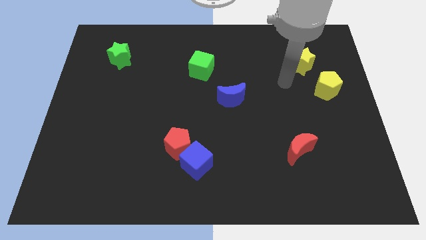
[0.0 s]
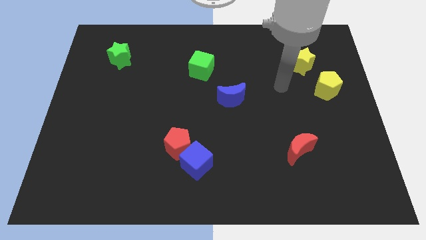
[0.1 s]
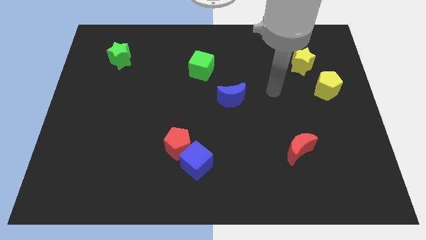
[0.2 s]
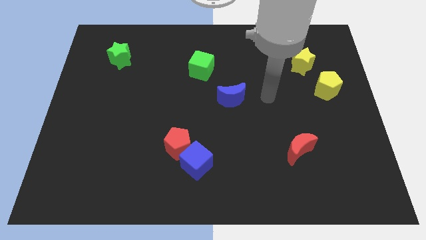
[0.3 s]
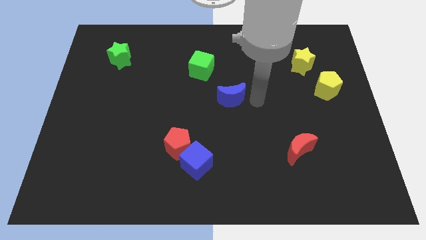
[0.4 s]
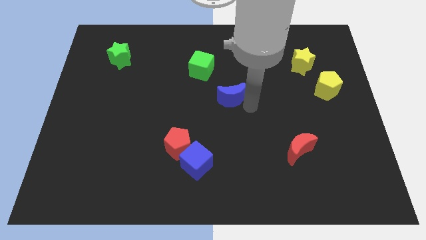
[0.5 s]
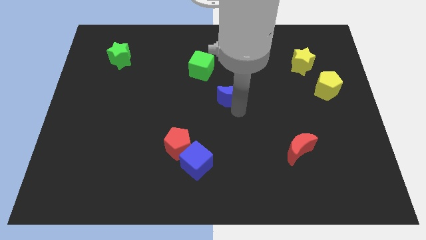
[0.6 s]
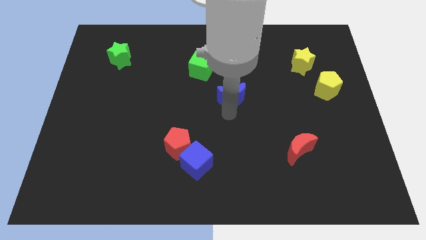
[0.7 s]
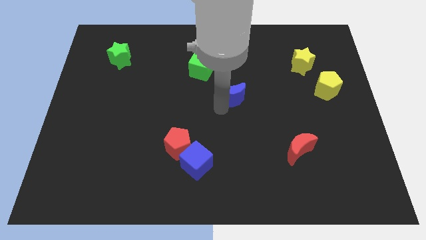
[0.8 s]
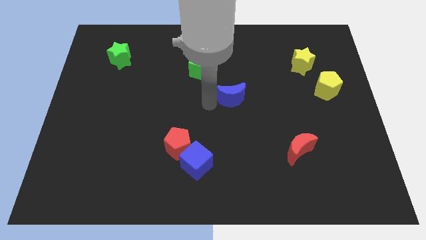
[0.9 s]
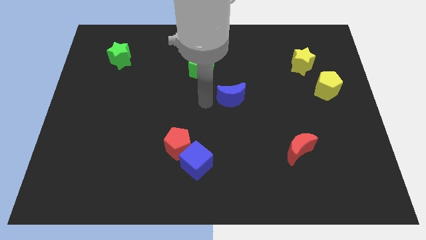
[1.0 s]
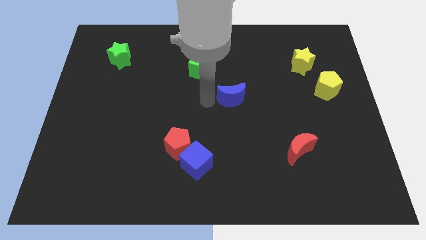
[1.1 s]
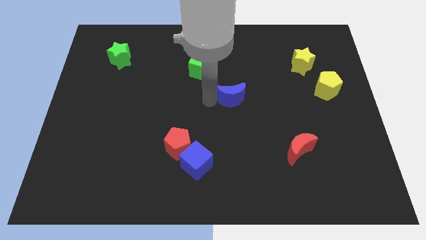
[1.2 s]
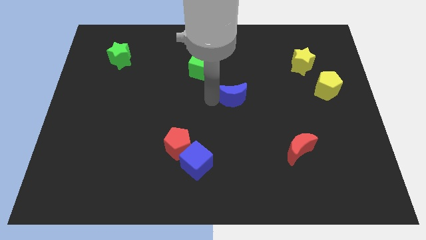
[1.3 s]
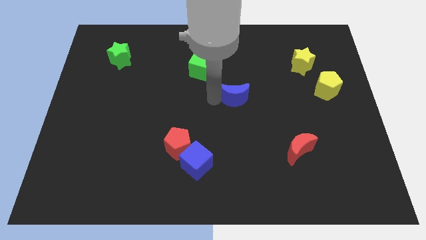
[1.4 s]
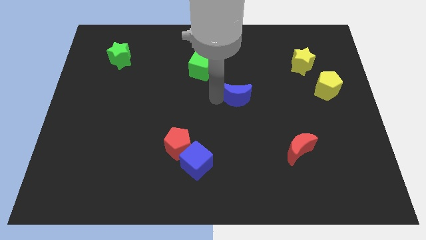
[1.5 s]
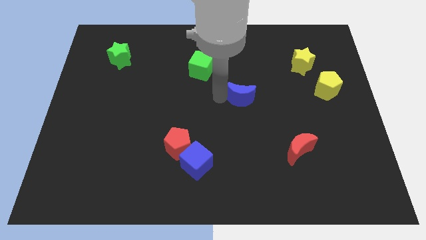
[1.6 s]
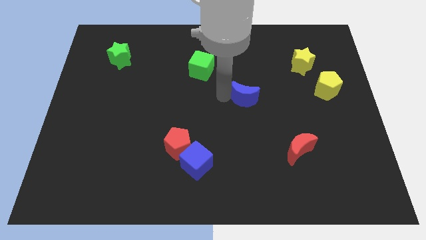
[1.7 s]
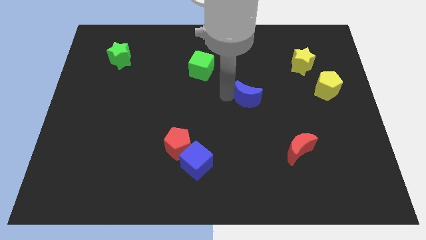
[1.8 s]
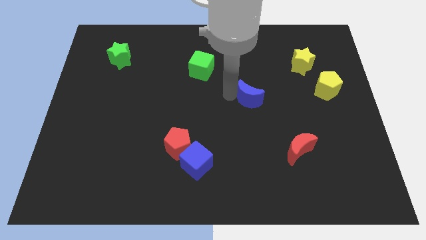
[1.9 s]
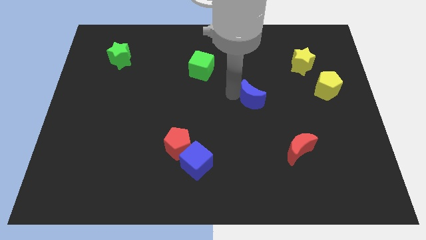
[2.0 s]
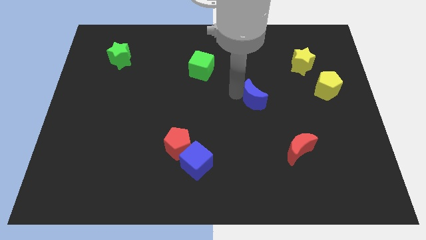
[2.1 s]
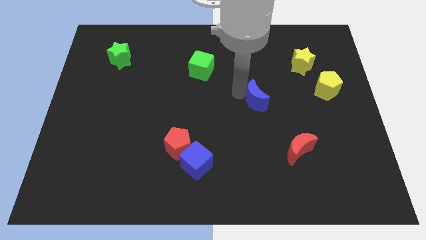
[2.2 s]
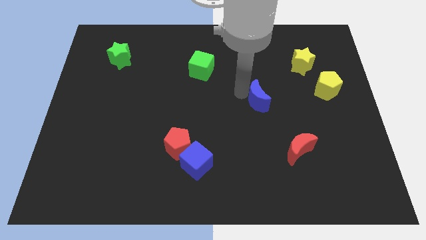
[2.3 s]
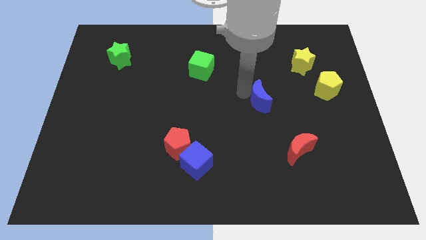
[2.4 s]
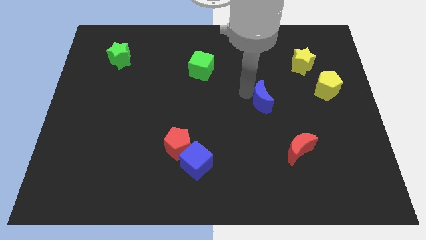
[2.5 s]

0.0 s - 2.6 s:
slide the blue moon to the right somewhat

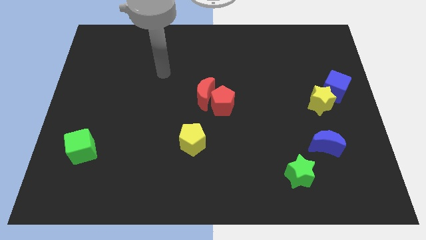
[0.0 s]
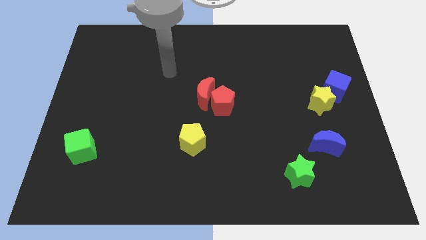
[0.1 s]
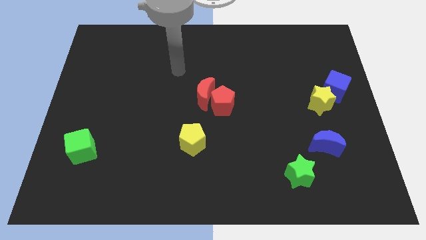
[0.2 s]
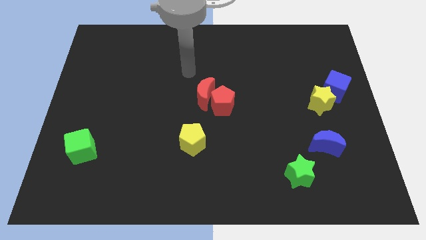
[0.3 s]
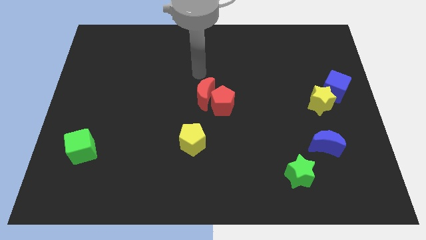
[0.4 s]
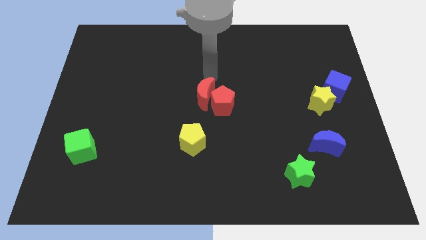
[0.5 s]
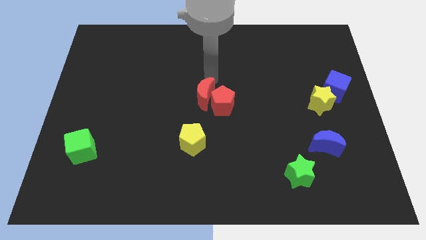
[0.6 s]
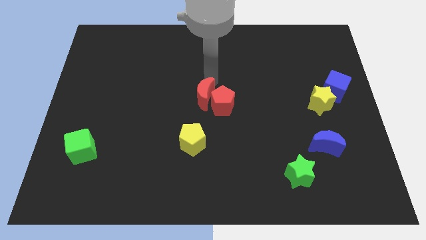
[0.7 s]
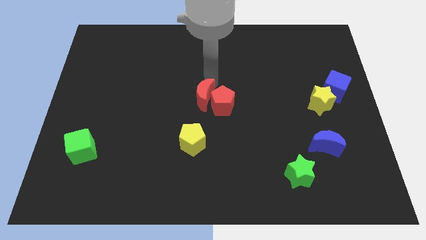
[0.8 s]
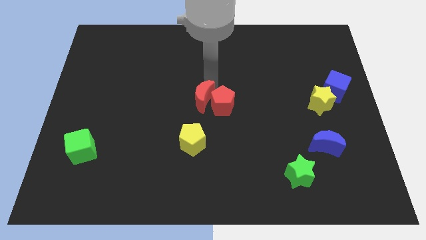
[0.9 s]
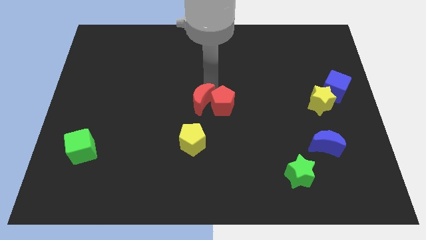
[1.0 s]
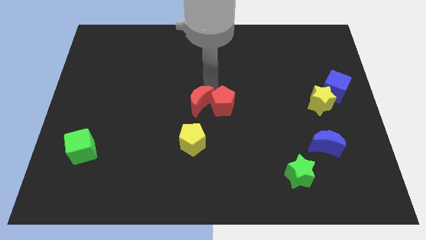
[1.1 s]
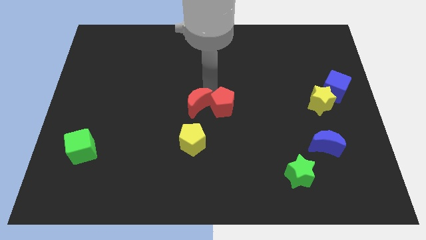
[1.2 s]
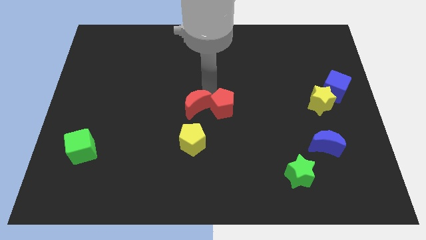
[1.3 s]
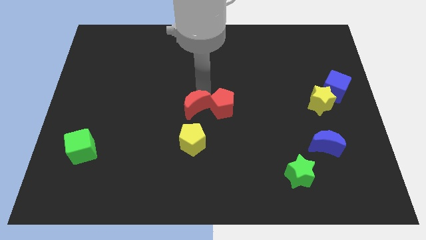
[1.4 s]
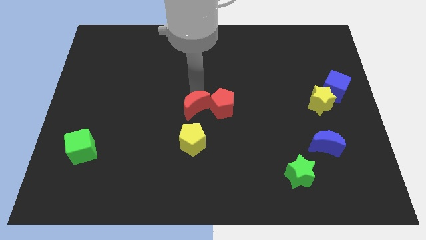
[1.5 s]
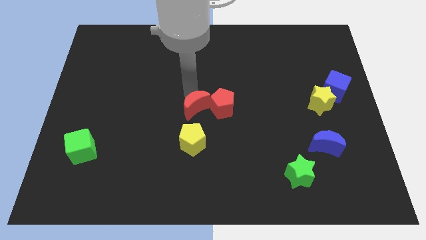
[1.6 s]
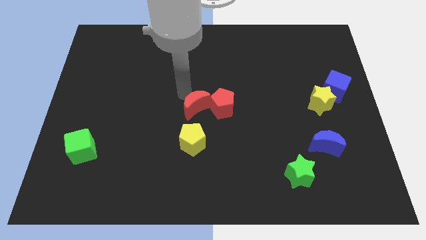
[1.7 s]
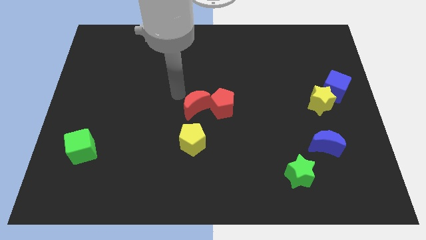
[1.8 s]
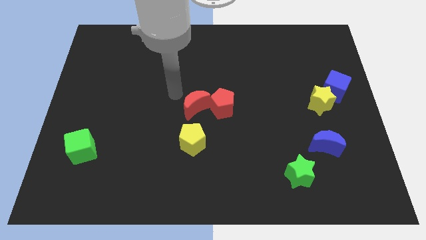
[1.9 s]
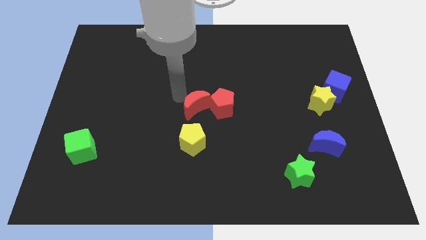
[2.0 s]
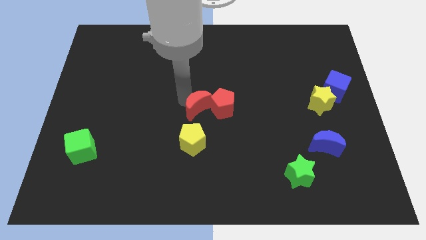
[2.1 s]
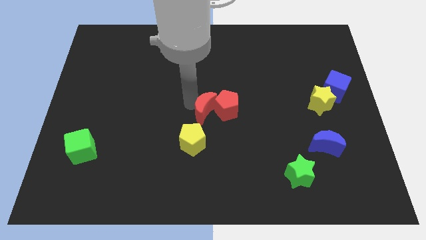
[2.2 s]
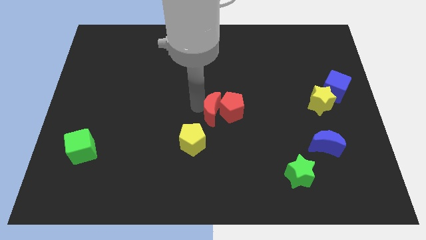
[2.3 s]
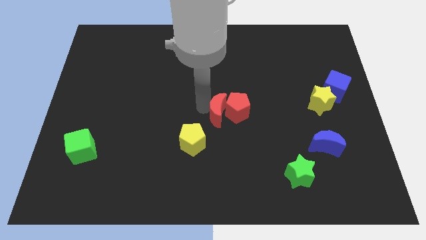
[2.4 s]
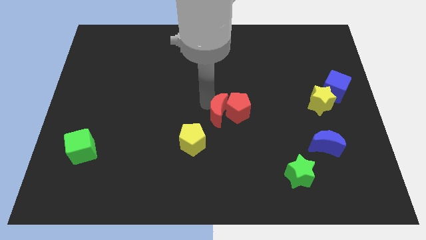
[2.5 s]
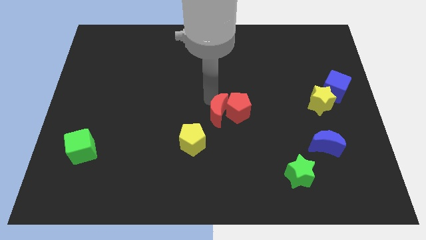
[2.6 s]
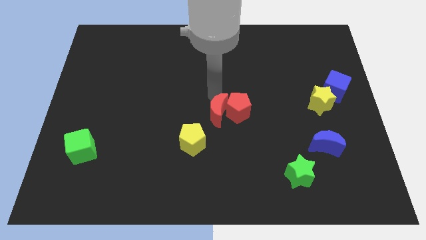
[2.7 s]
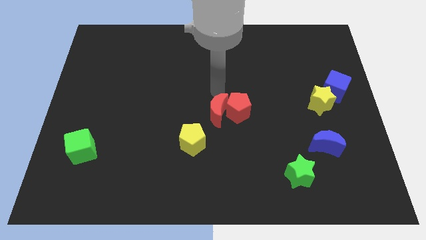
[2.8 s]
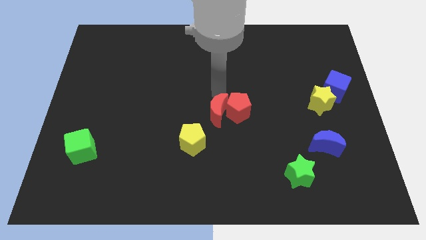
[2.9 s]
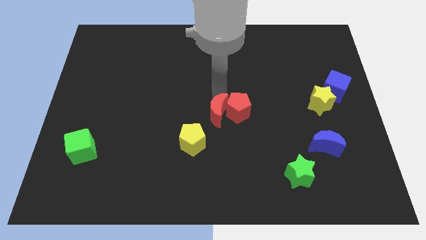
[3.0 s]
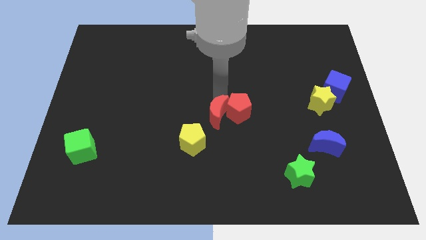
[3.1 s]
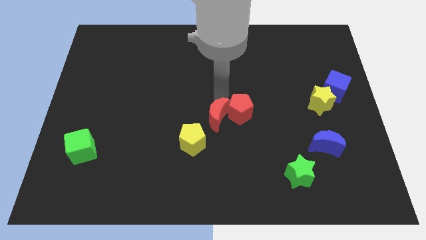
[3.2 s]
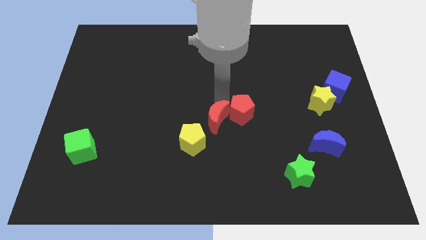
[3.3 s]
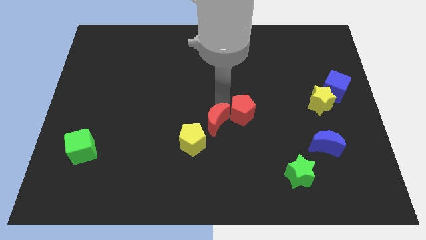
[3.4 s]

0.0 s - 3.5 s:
slightly push the red moon down

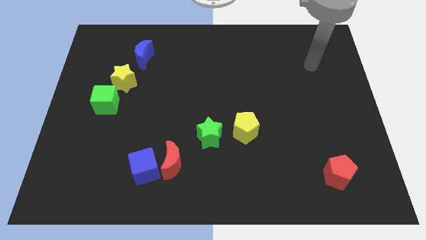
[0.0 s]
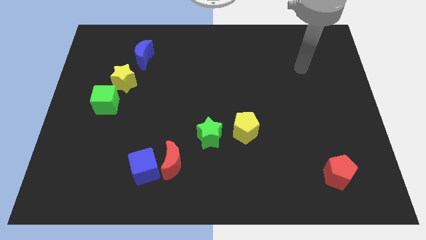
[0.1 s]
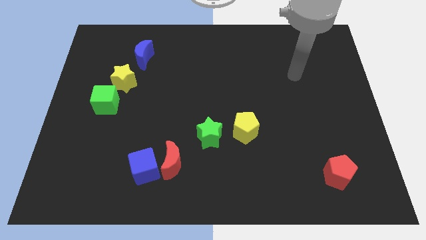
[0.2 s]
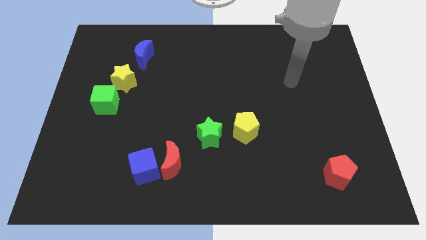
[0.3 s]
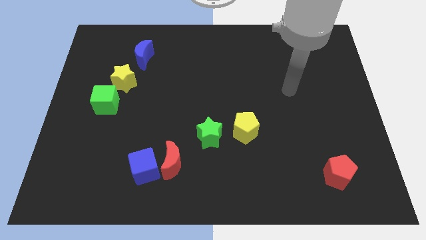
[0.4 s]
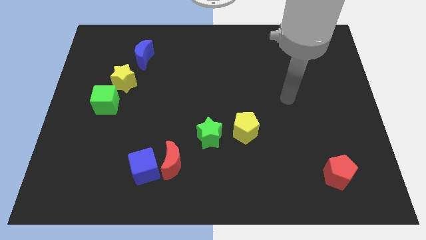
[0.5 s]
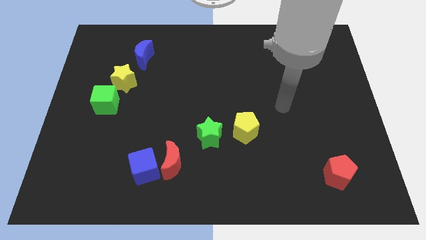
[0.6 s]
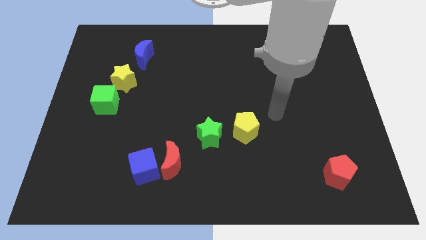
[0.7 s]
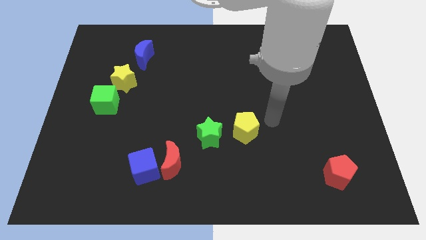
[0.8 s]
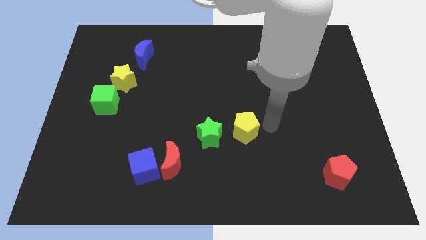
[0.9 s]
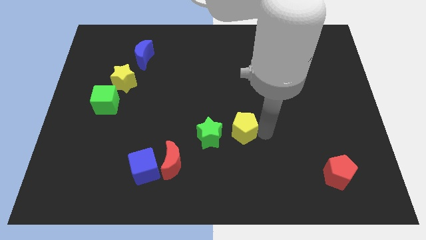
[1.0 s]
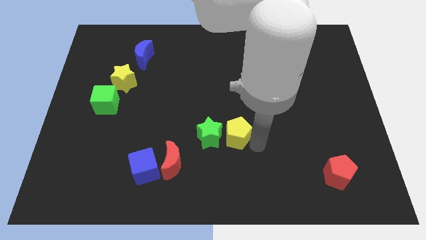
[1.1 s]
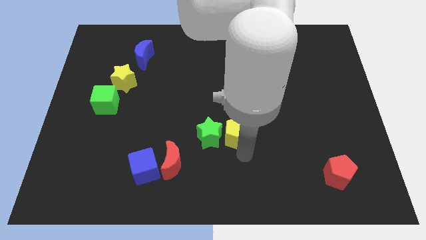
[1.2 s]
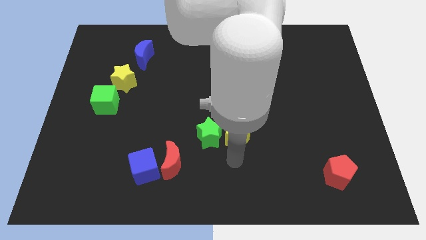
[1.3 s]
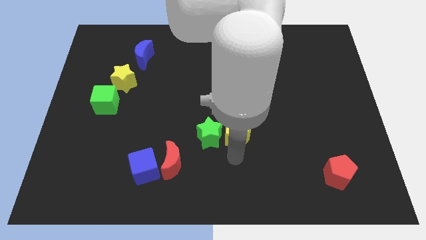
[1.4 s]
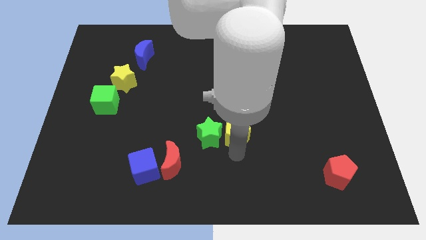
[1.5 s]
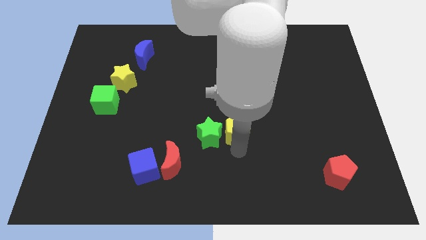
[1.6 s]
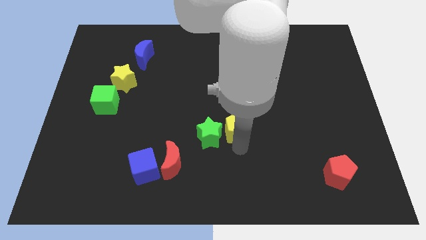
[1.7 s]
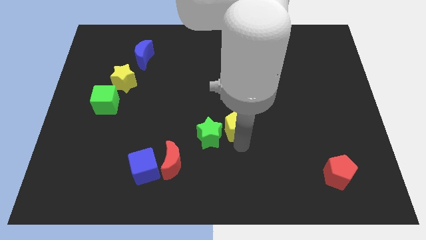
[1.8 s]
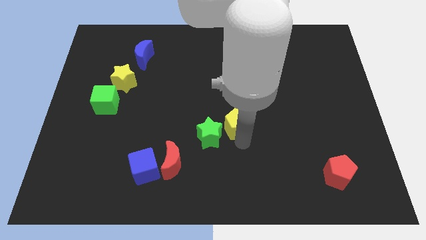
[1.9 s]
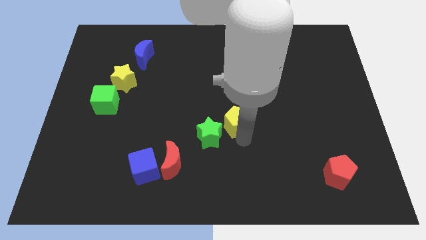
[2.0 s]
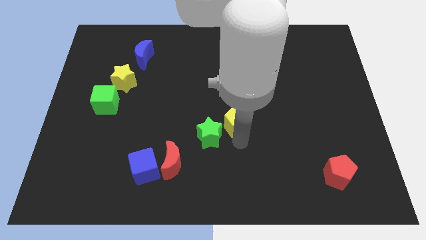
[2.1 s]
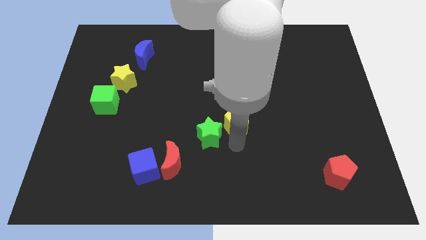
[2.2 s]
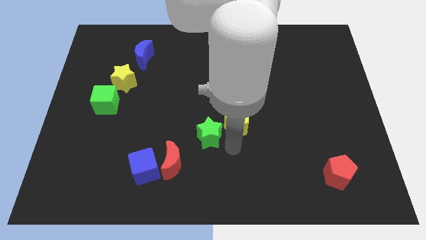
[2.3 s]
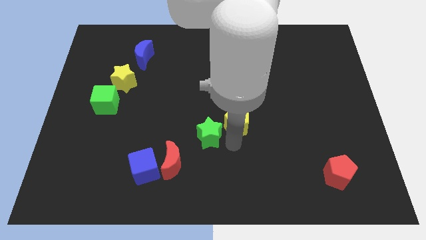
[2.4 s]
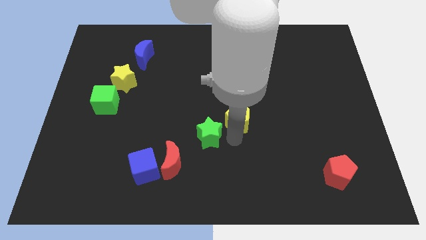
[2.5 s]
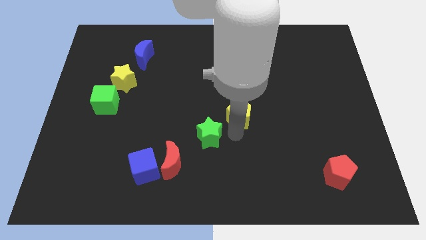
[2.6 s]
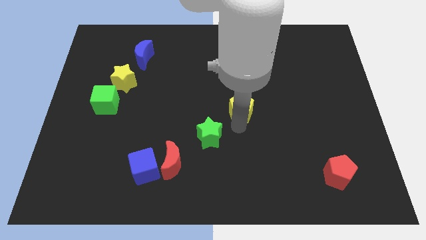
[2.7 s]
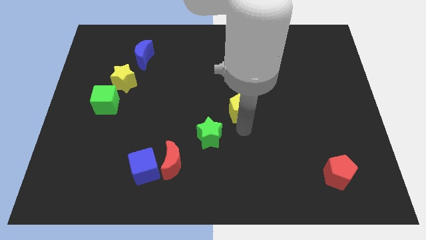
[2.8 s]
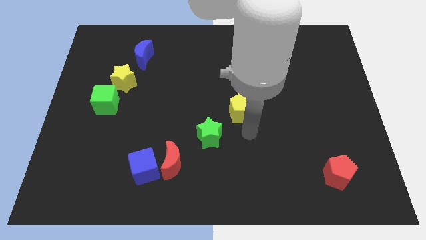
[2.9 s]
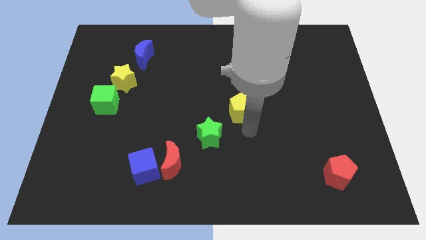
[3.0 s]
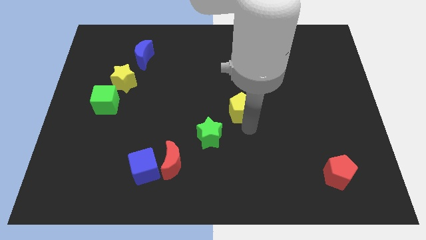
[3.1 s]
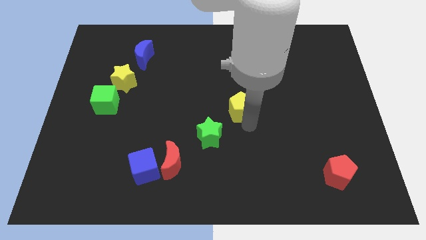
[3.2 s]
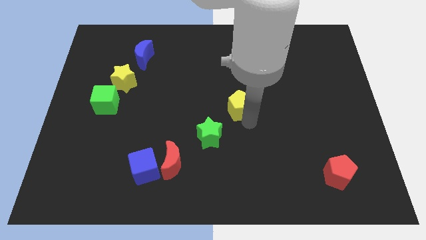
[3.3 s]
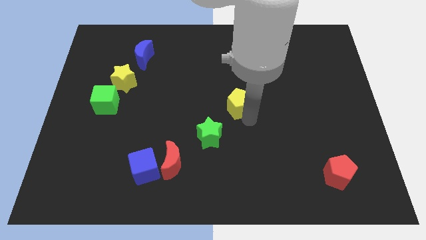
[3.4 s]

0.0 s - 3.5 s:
move the yellow pentagon upwards a little bit
